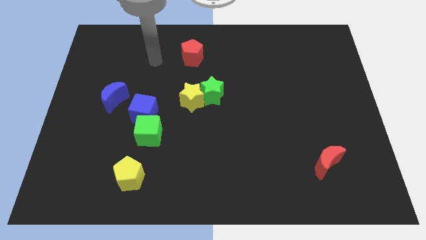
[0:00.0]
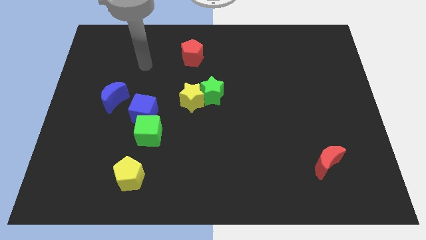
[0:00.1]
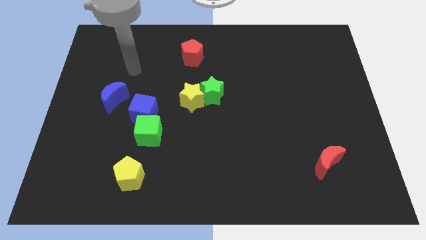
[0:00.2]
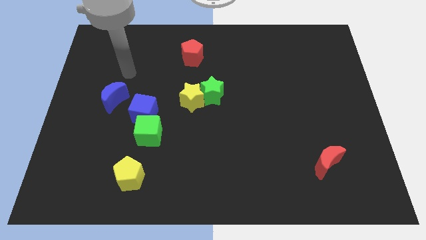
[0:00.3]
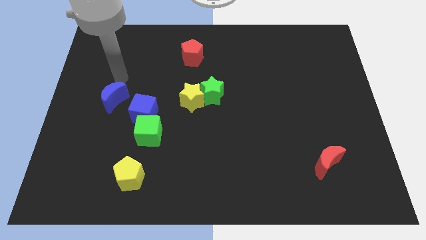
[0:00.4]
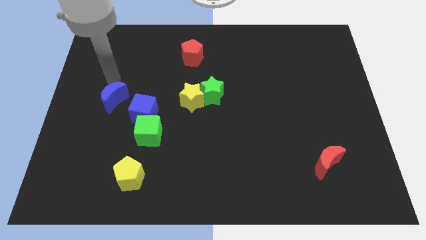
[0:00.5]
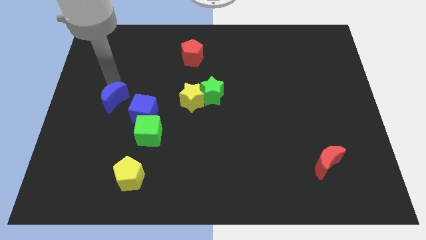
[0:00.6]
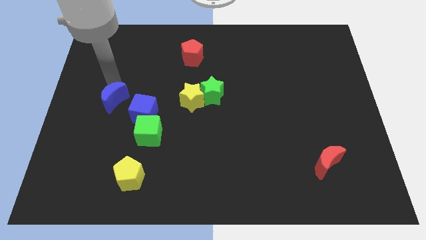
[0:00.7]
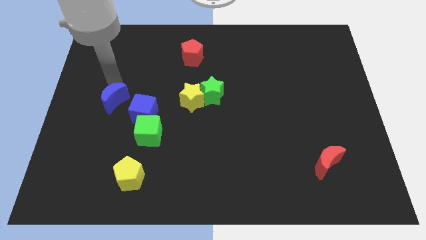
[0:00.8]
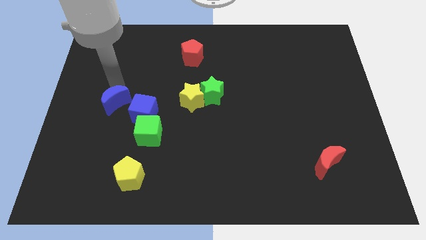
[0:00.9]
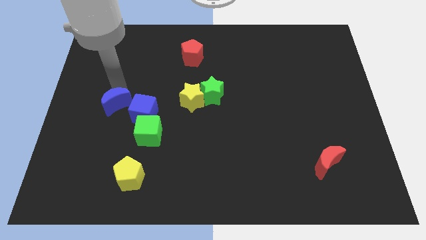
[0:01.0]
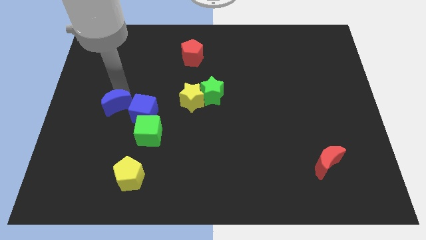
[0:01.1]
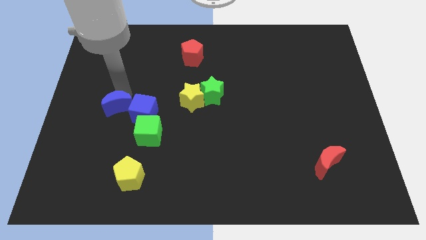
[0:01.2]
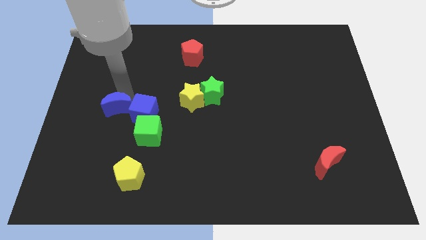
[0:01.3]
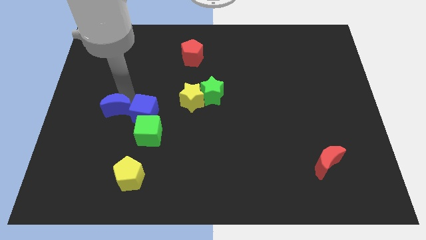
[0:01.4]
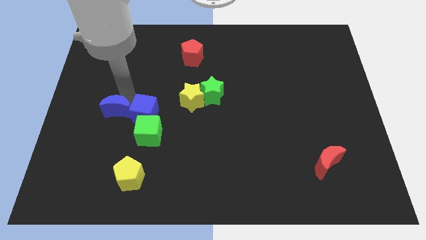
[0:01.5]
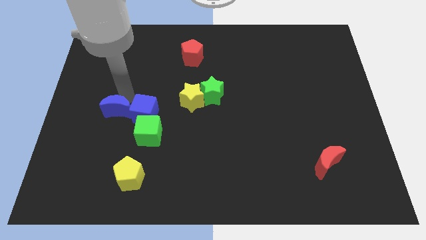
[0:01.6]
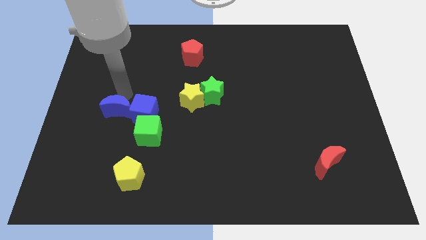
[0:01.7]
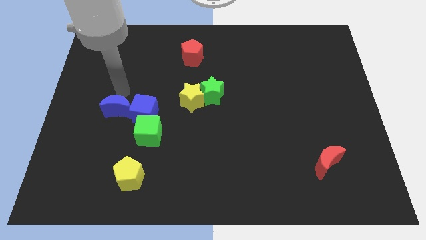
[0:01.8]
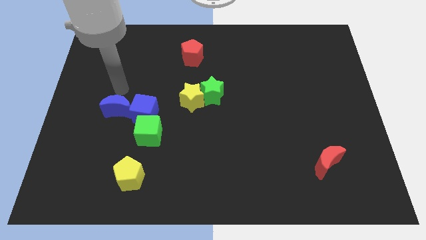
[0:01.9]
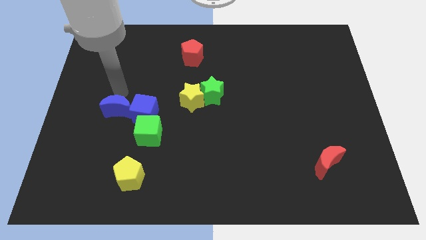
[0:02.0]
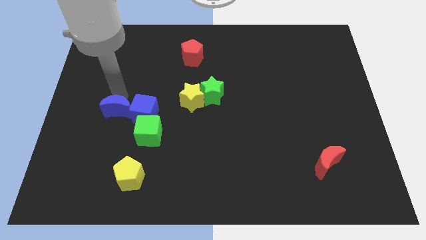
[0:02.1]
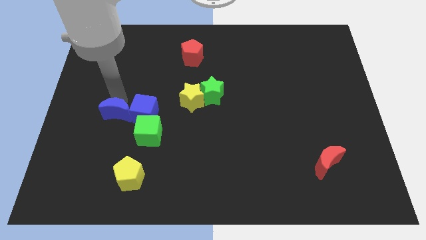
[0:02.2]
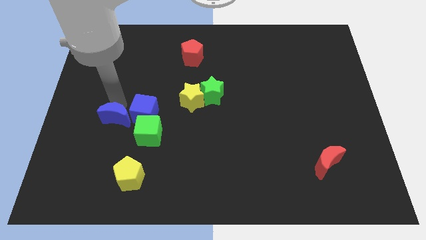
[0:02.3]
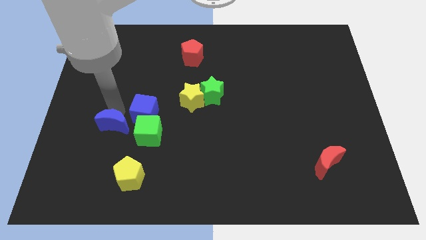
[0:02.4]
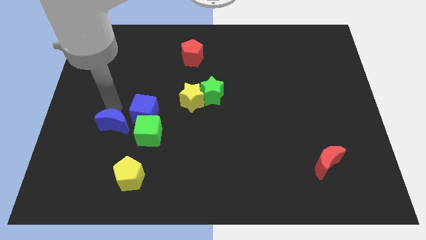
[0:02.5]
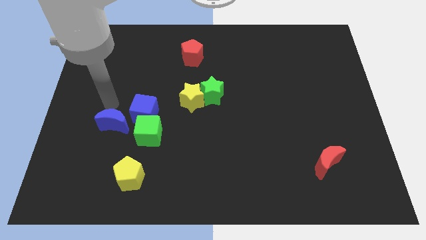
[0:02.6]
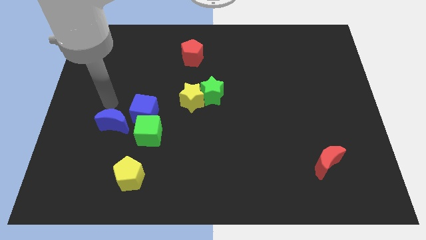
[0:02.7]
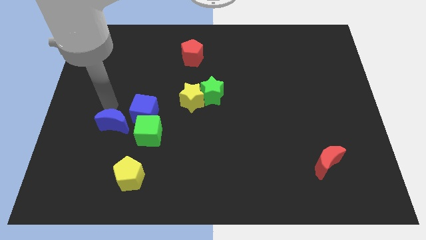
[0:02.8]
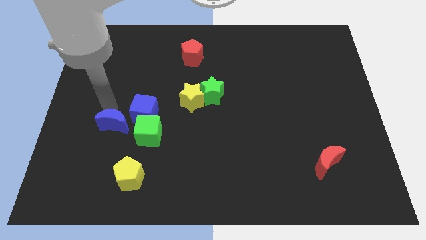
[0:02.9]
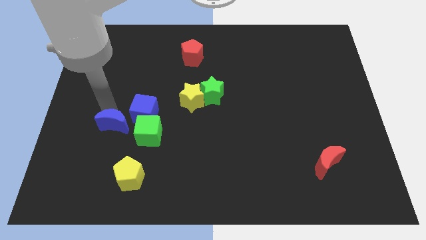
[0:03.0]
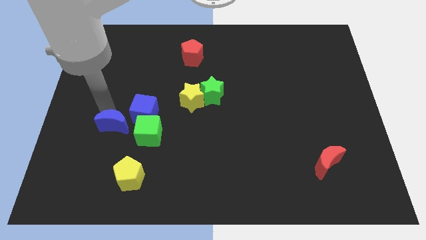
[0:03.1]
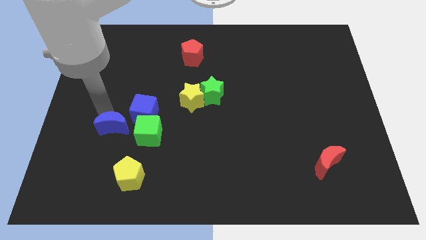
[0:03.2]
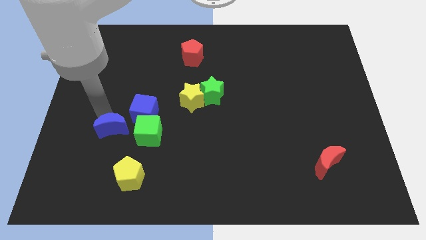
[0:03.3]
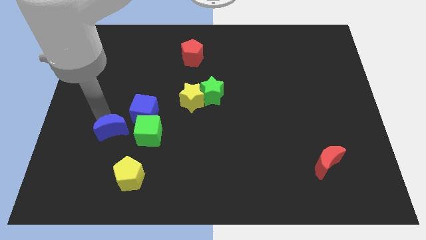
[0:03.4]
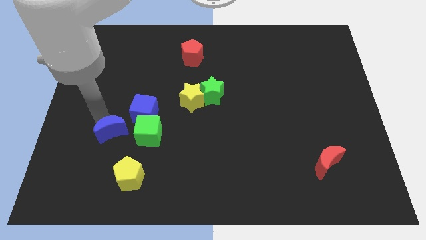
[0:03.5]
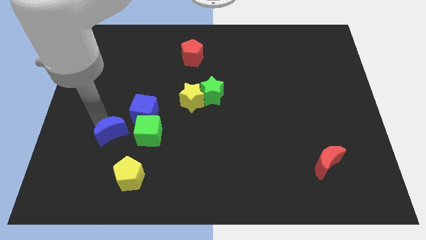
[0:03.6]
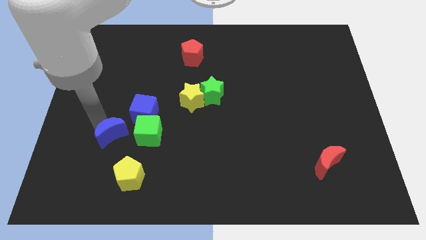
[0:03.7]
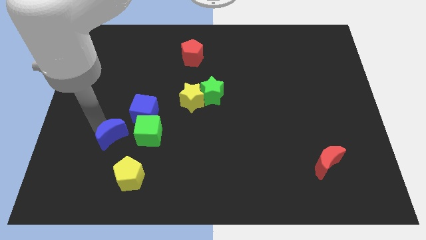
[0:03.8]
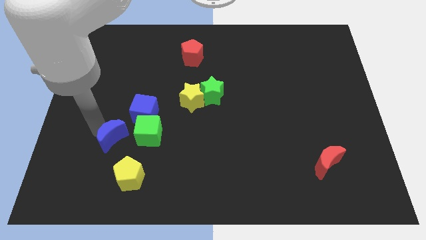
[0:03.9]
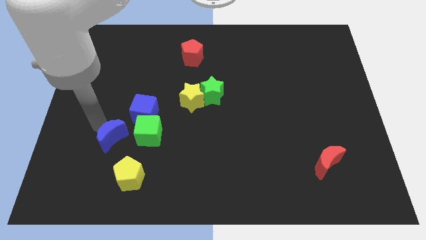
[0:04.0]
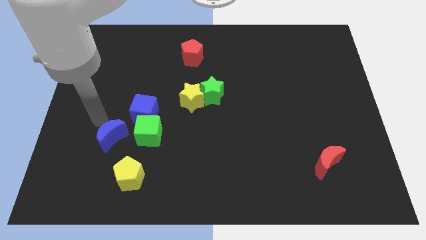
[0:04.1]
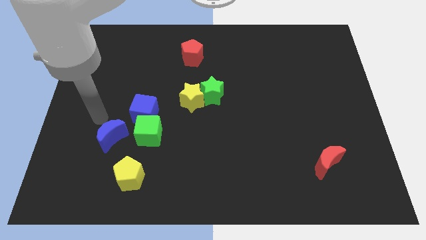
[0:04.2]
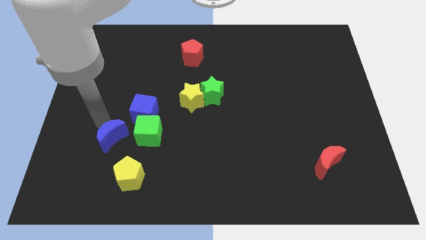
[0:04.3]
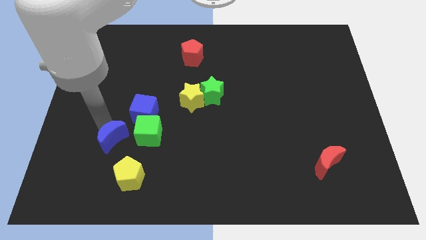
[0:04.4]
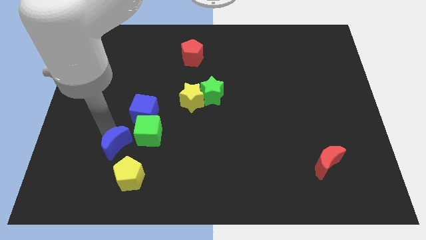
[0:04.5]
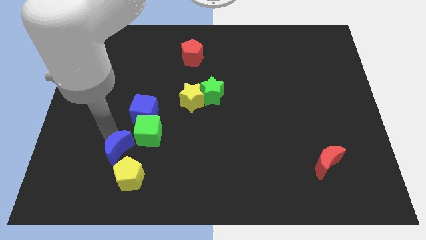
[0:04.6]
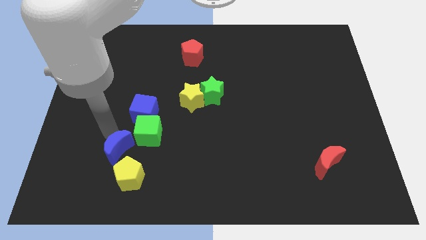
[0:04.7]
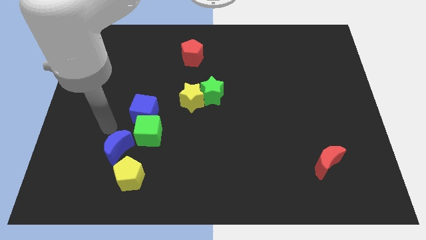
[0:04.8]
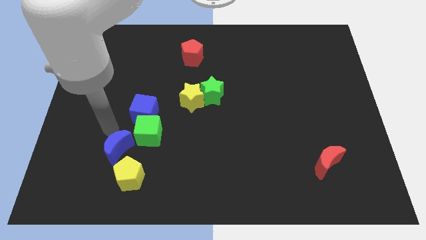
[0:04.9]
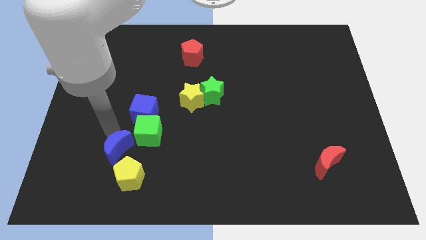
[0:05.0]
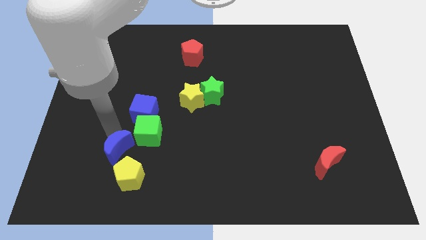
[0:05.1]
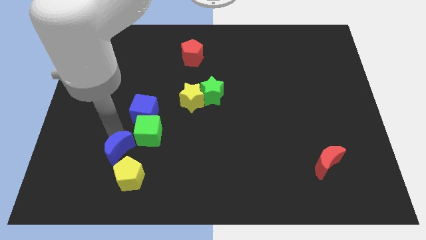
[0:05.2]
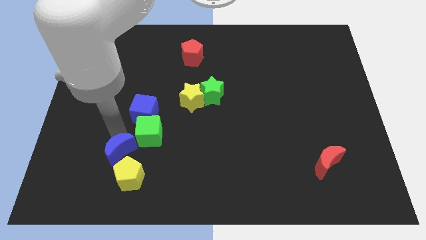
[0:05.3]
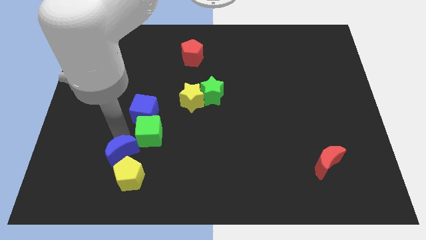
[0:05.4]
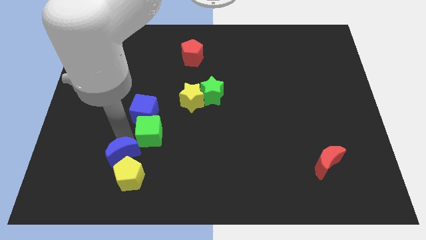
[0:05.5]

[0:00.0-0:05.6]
move the blue moon towards the yellow pentagon

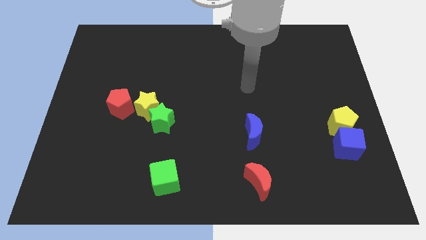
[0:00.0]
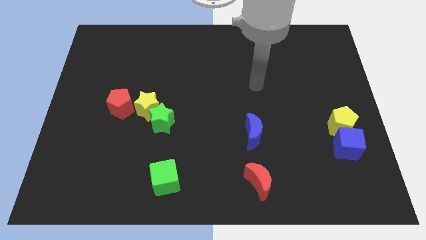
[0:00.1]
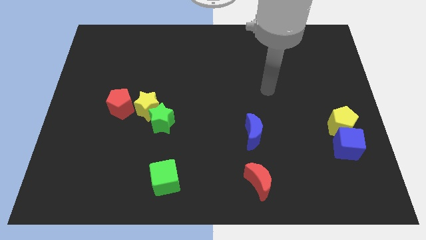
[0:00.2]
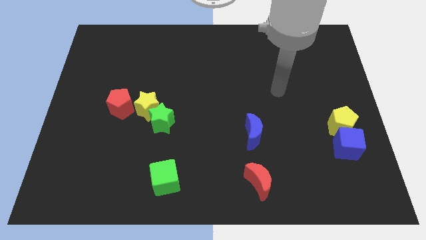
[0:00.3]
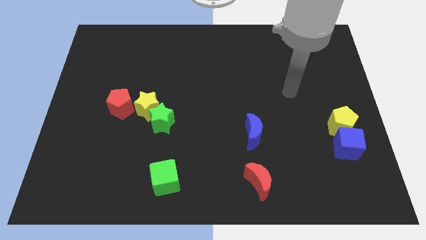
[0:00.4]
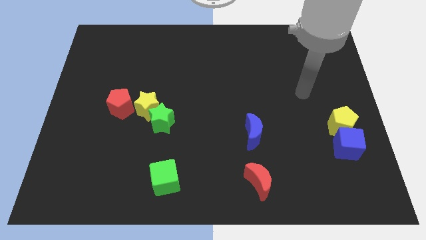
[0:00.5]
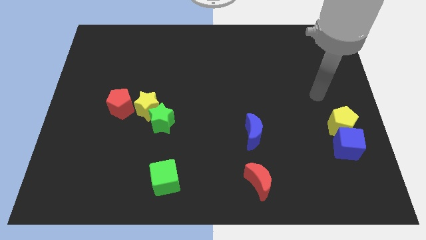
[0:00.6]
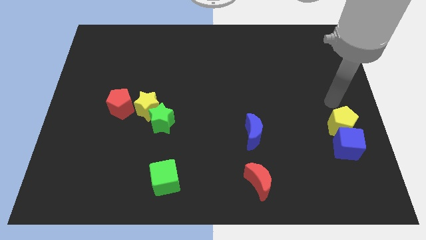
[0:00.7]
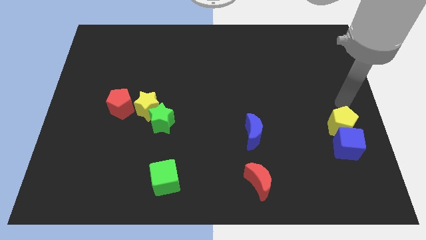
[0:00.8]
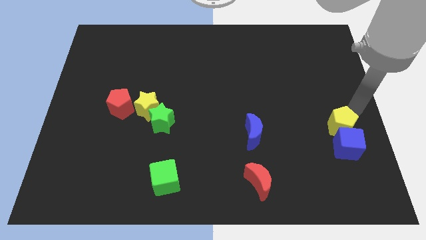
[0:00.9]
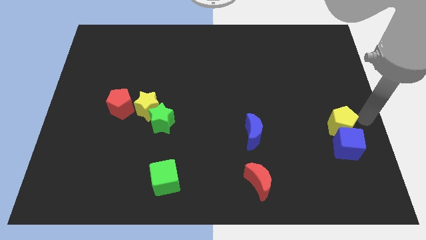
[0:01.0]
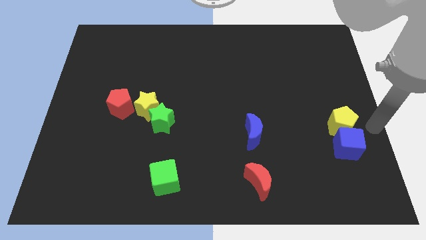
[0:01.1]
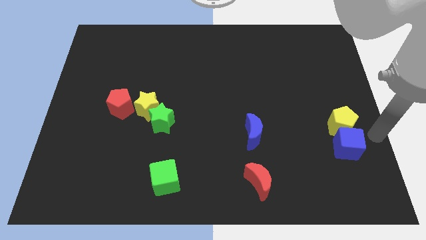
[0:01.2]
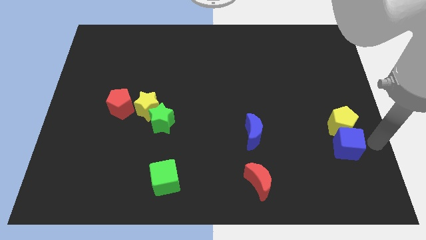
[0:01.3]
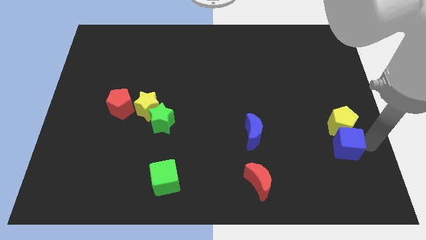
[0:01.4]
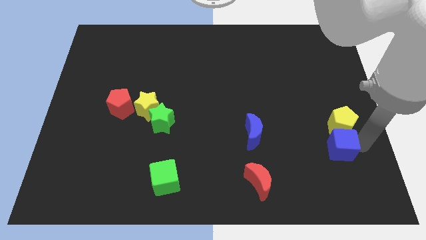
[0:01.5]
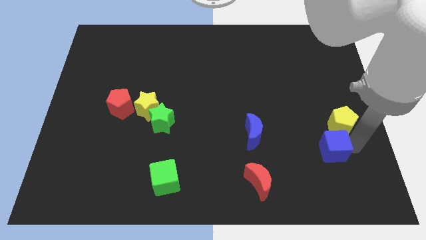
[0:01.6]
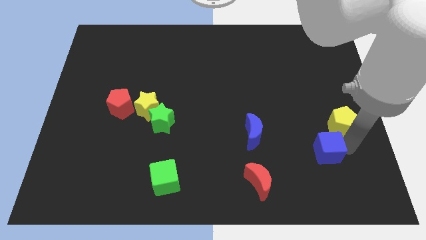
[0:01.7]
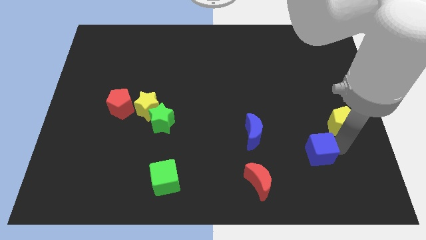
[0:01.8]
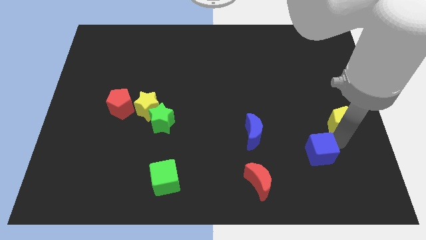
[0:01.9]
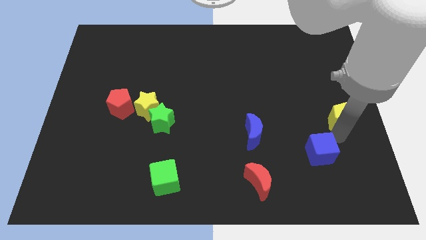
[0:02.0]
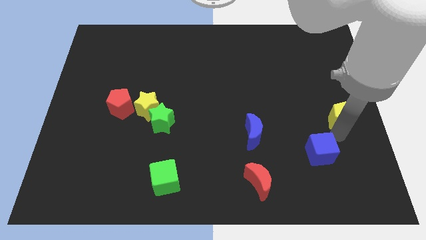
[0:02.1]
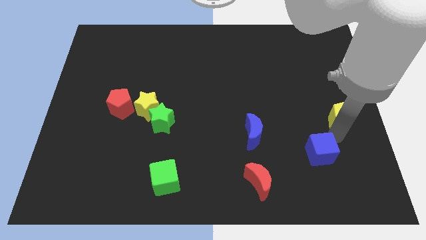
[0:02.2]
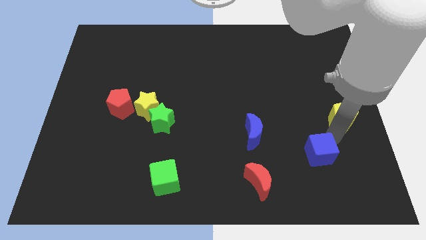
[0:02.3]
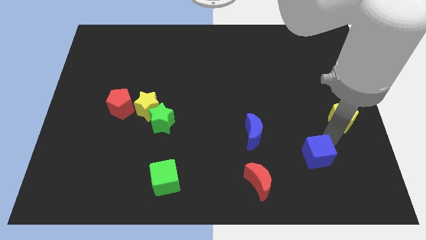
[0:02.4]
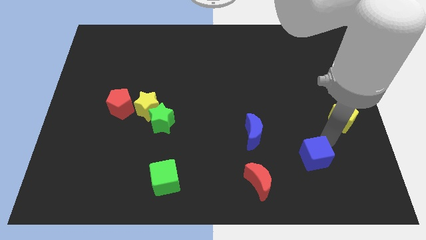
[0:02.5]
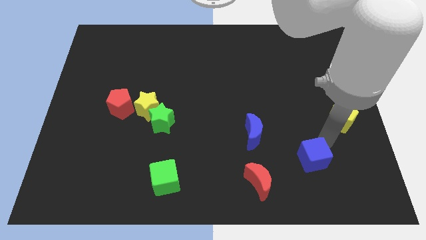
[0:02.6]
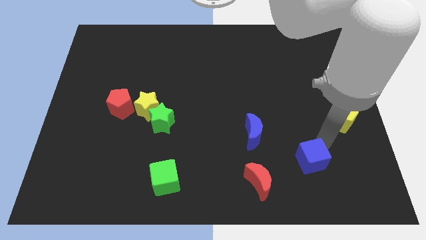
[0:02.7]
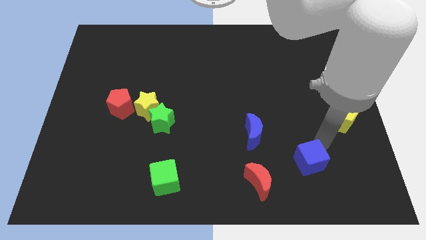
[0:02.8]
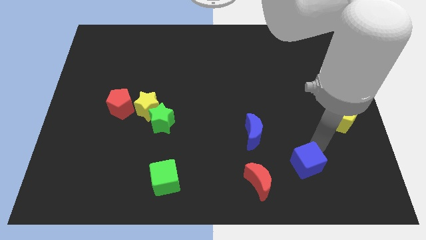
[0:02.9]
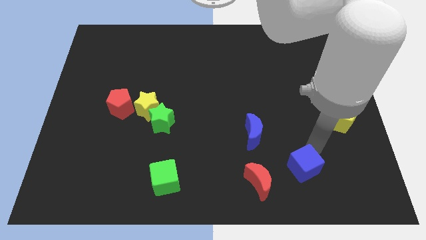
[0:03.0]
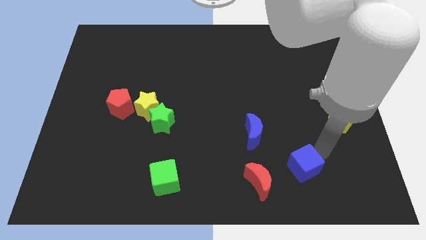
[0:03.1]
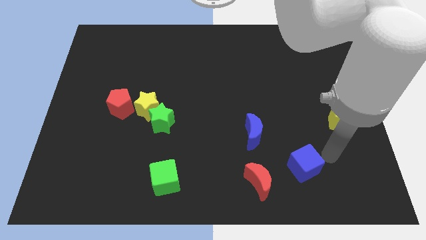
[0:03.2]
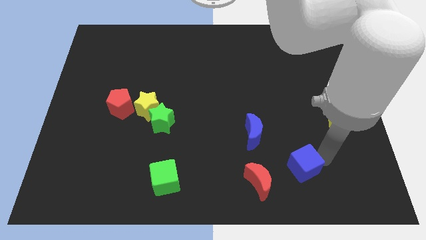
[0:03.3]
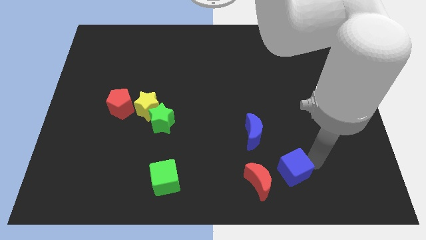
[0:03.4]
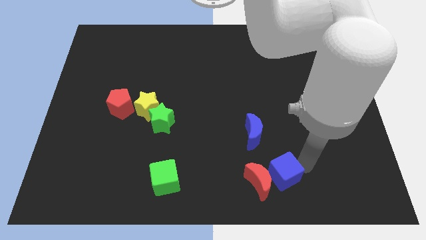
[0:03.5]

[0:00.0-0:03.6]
push the blue cube next to the red moon
